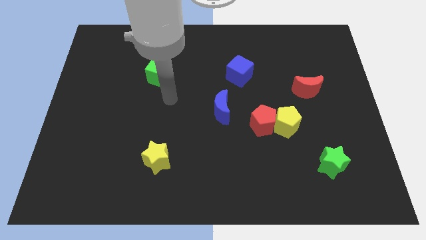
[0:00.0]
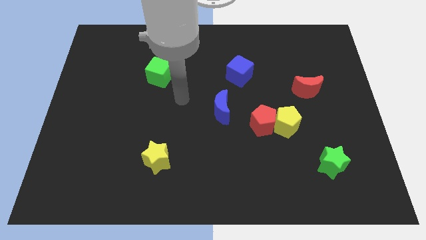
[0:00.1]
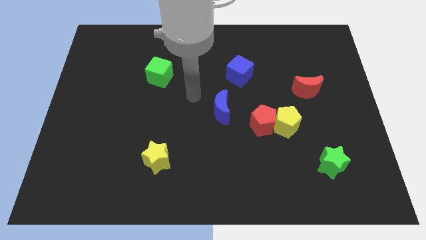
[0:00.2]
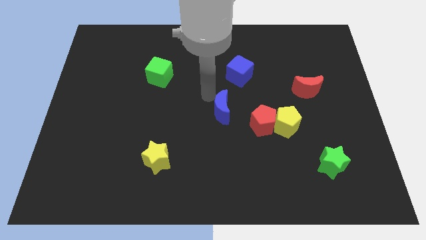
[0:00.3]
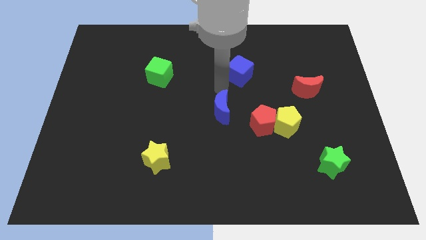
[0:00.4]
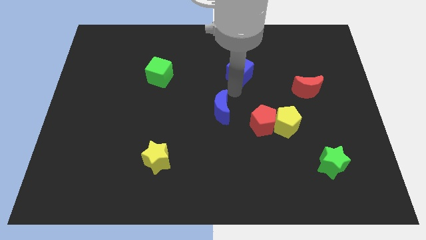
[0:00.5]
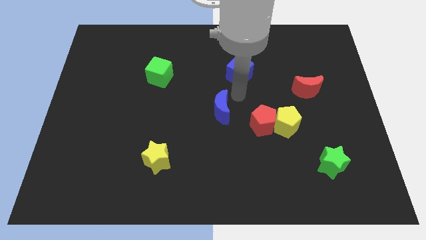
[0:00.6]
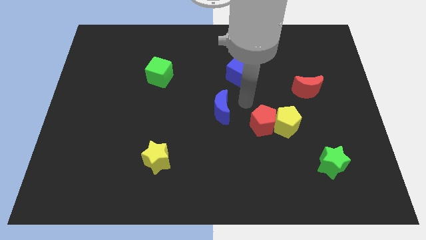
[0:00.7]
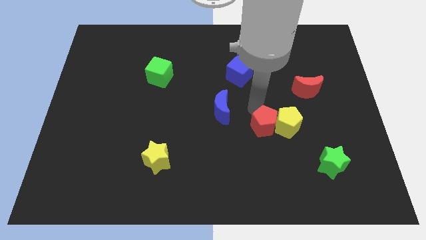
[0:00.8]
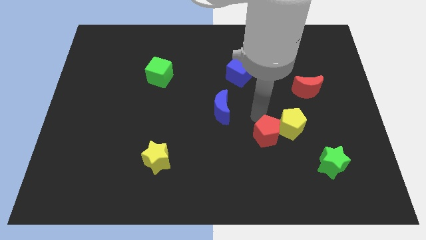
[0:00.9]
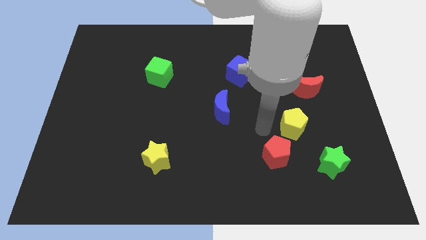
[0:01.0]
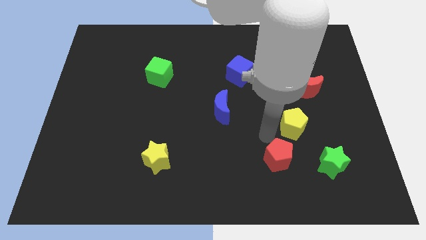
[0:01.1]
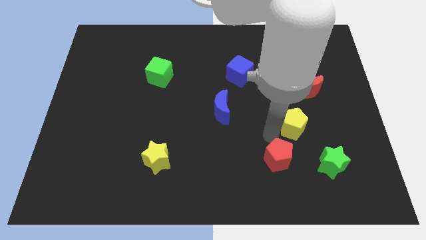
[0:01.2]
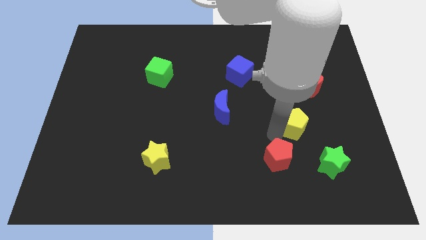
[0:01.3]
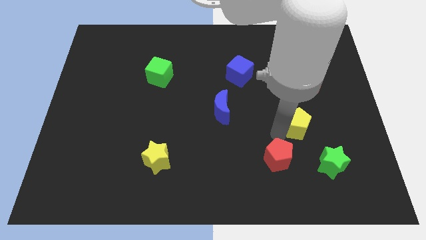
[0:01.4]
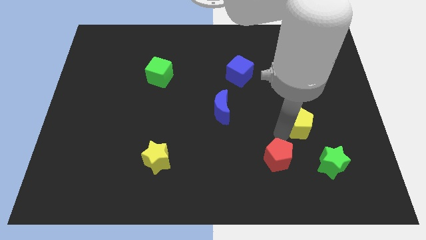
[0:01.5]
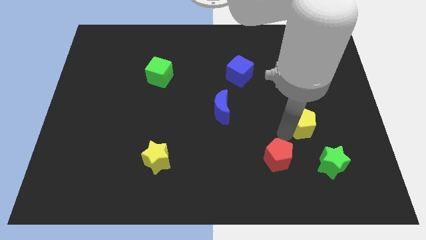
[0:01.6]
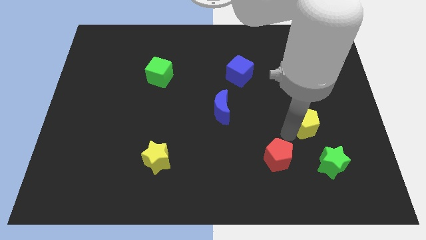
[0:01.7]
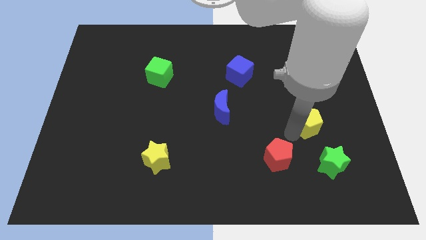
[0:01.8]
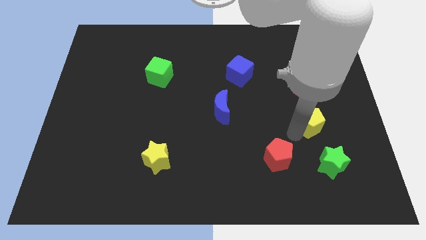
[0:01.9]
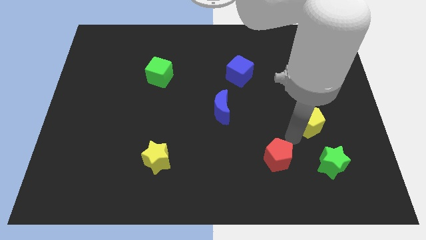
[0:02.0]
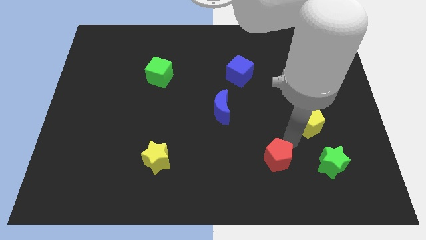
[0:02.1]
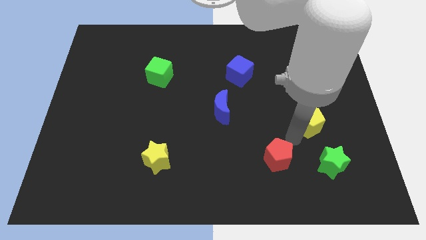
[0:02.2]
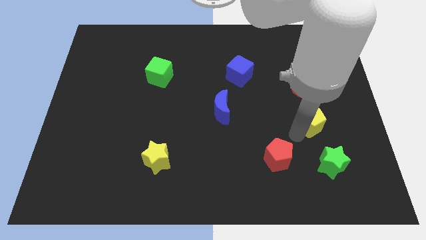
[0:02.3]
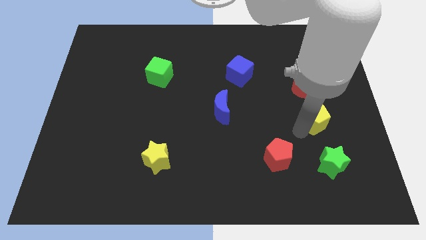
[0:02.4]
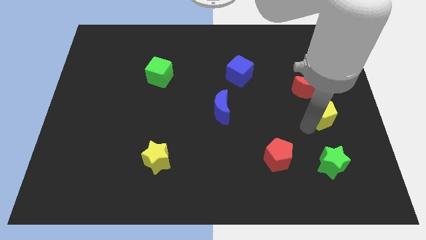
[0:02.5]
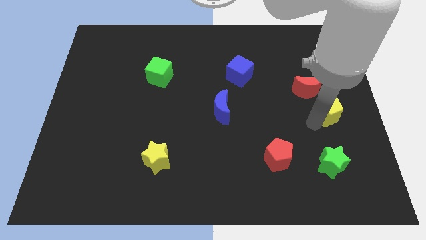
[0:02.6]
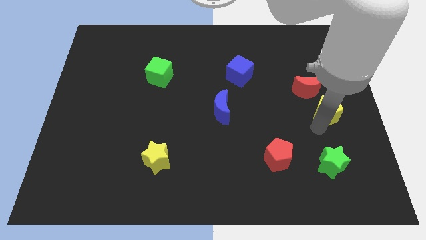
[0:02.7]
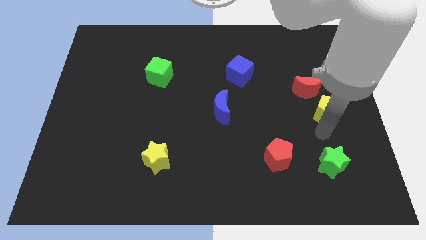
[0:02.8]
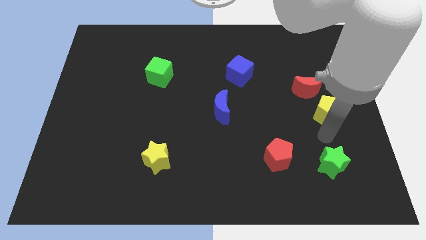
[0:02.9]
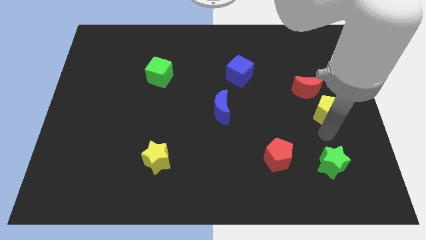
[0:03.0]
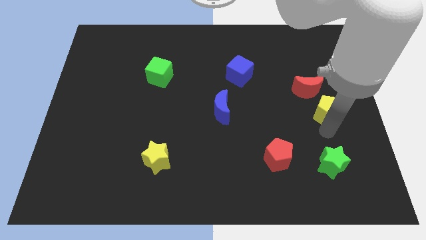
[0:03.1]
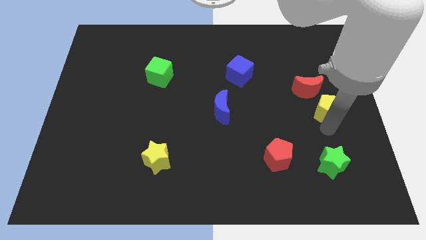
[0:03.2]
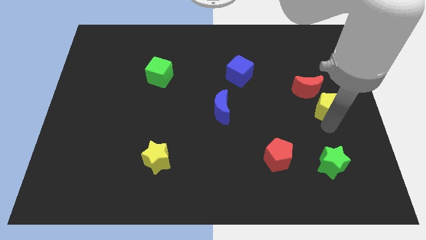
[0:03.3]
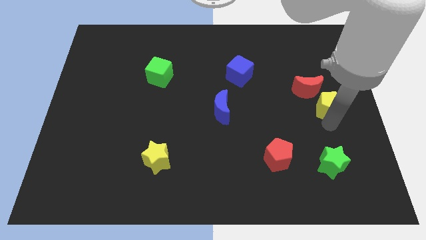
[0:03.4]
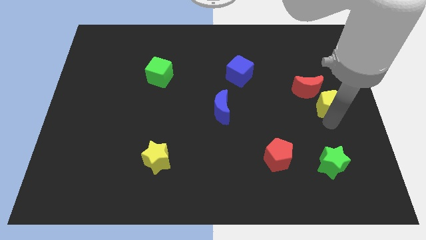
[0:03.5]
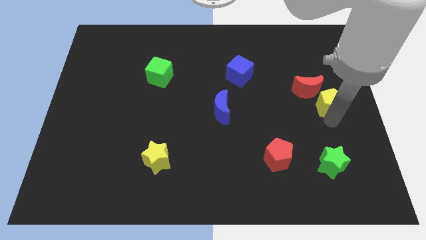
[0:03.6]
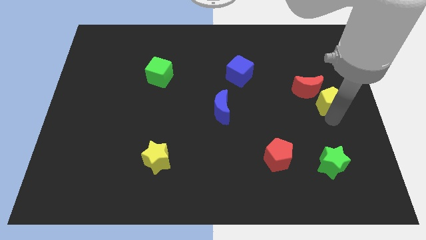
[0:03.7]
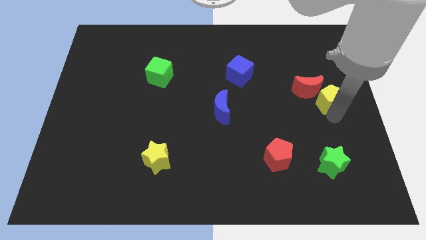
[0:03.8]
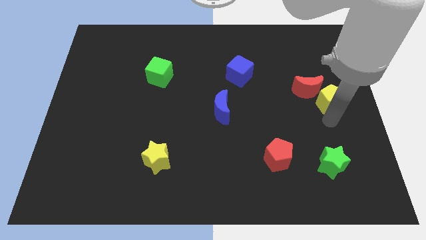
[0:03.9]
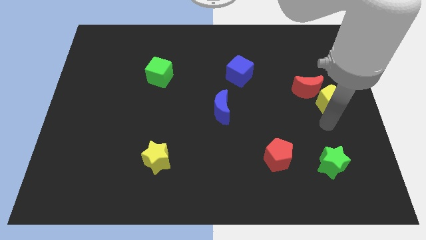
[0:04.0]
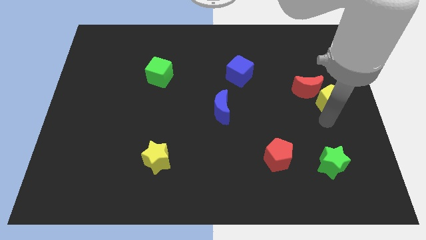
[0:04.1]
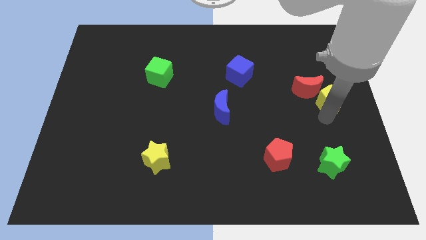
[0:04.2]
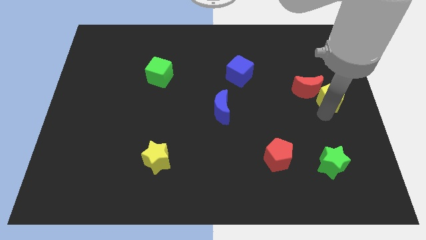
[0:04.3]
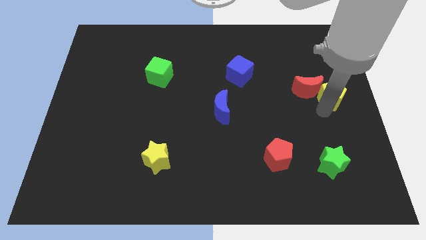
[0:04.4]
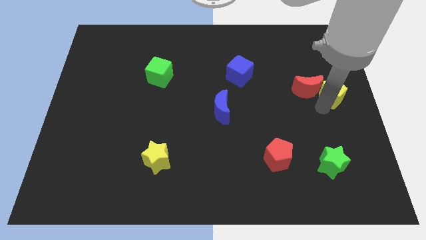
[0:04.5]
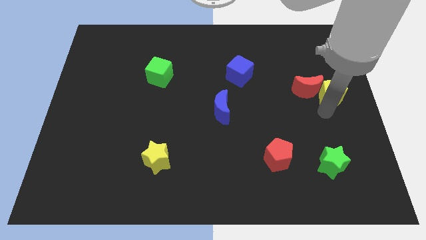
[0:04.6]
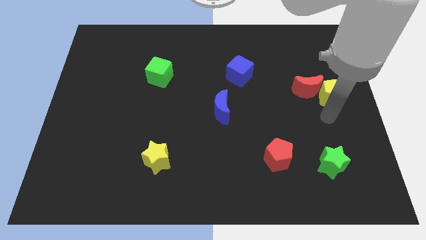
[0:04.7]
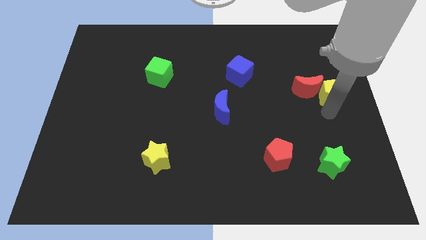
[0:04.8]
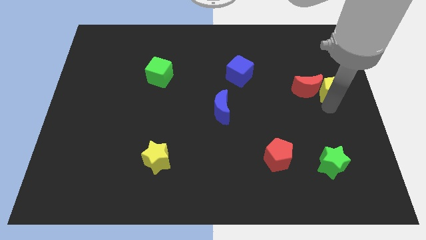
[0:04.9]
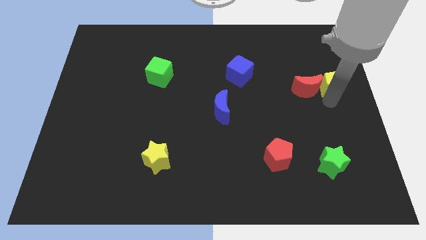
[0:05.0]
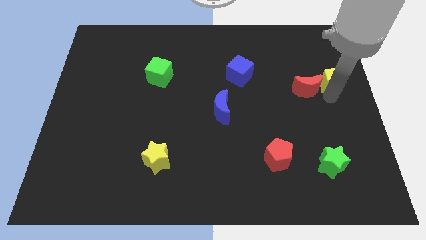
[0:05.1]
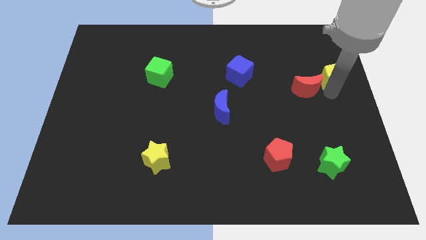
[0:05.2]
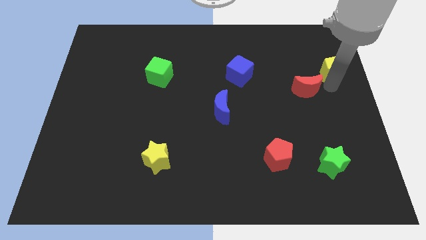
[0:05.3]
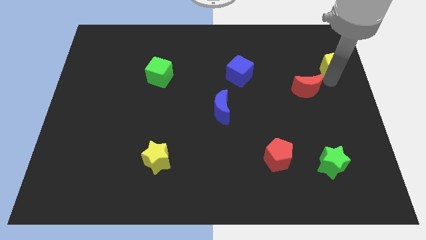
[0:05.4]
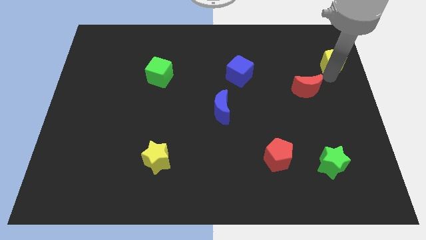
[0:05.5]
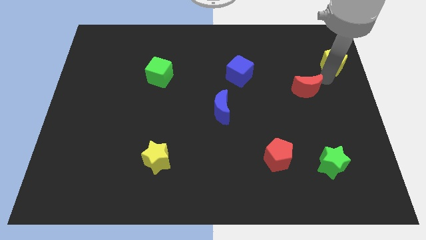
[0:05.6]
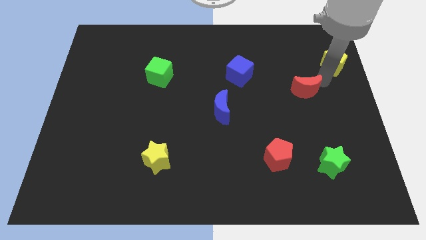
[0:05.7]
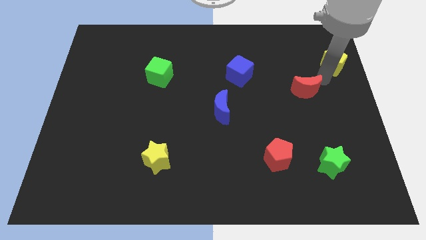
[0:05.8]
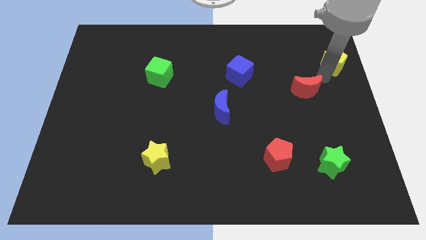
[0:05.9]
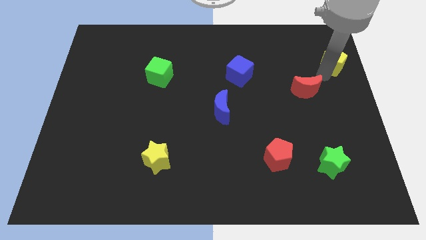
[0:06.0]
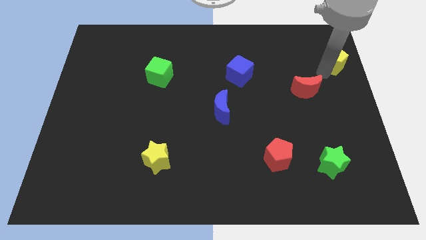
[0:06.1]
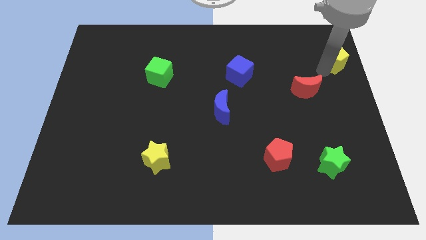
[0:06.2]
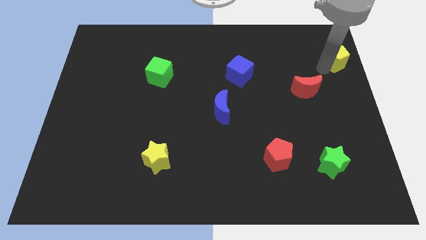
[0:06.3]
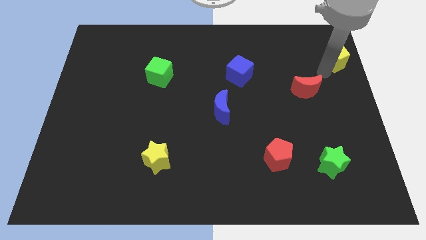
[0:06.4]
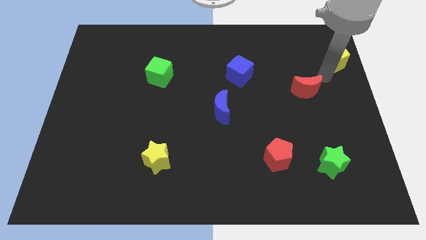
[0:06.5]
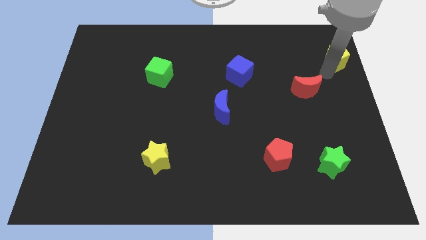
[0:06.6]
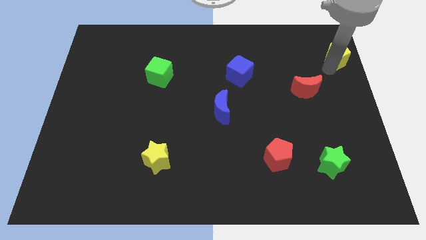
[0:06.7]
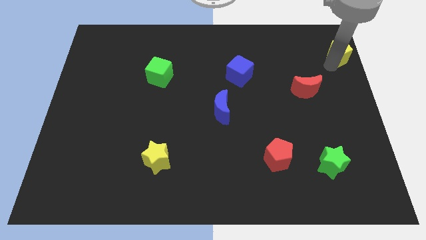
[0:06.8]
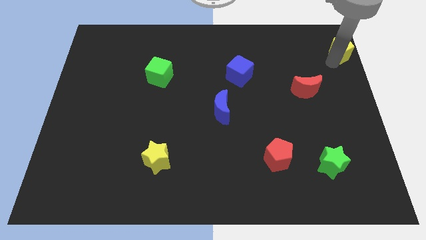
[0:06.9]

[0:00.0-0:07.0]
push the yellow pentagon to the upper right corner
